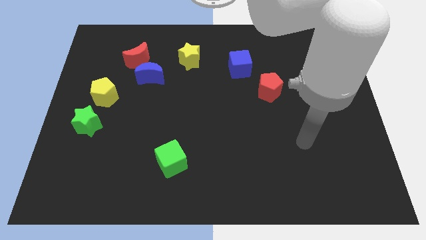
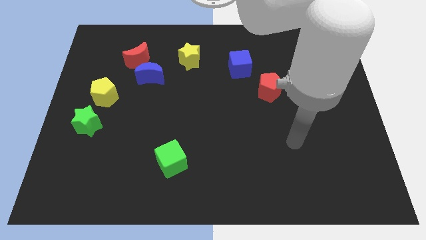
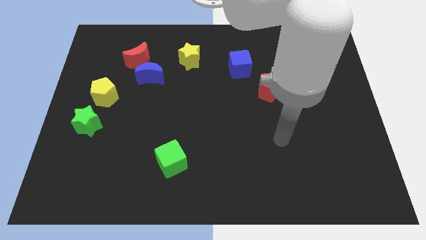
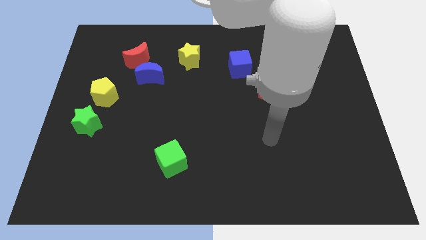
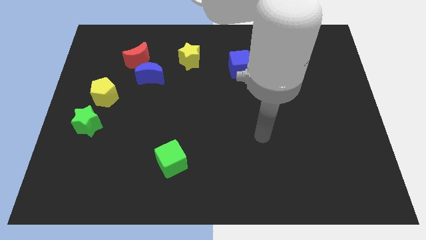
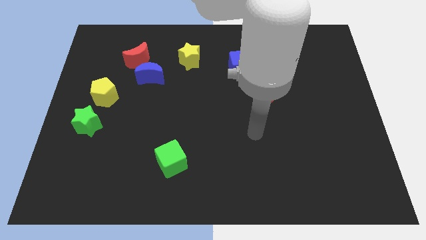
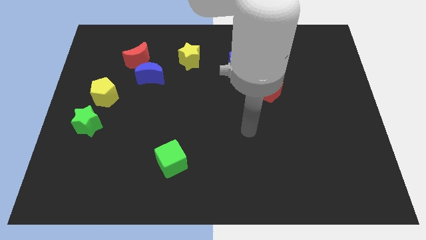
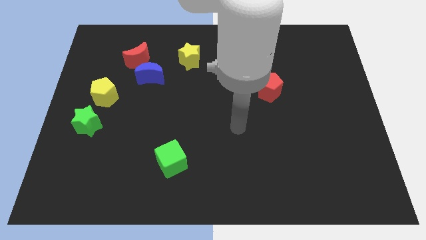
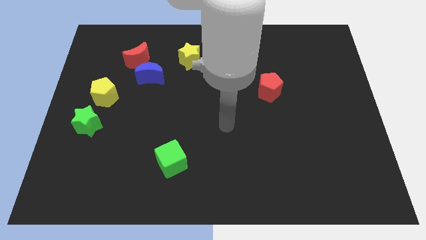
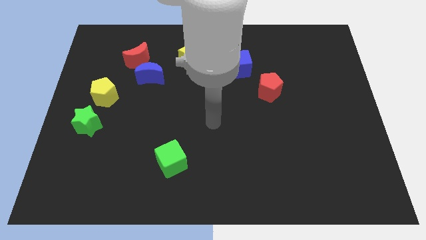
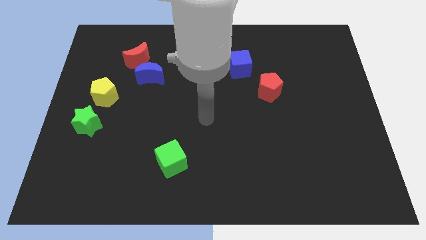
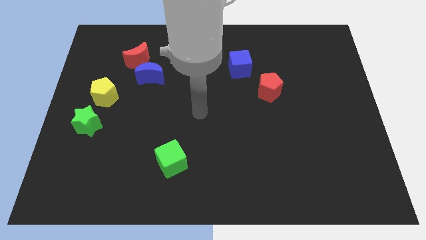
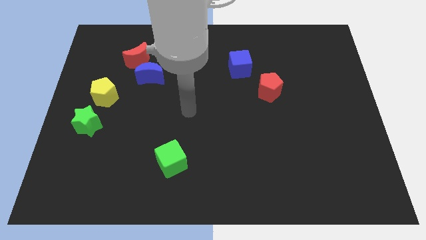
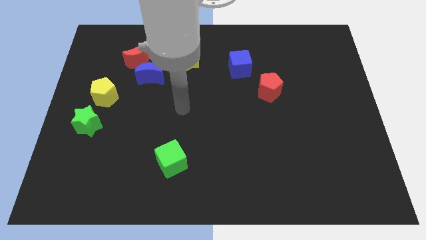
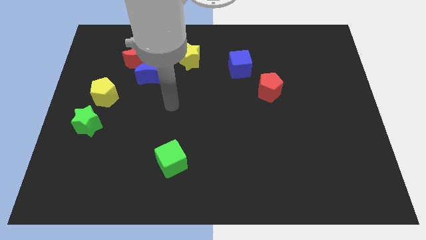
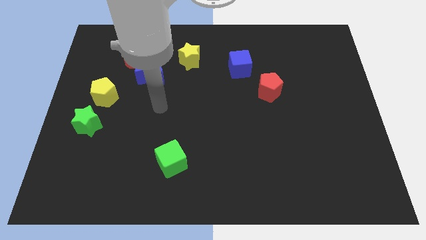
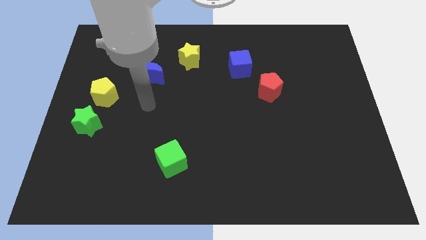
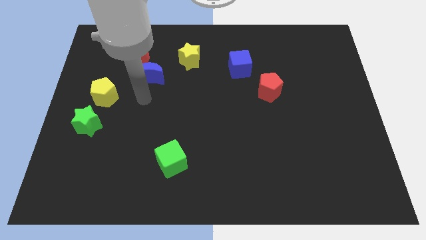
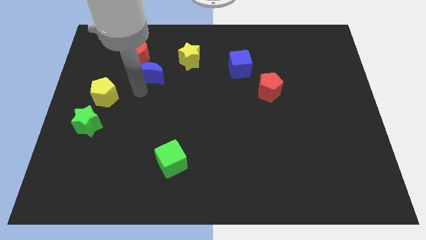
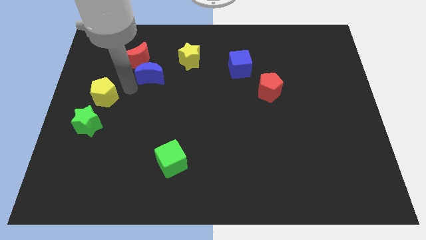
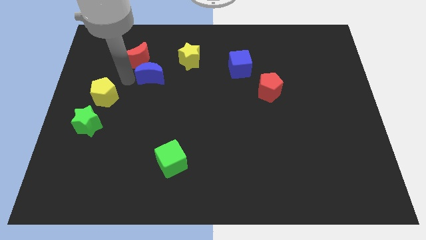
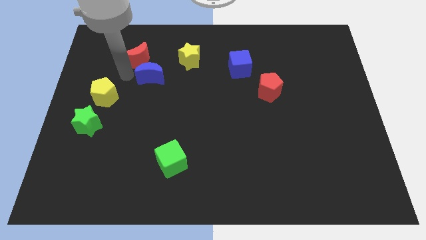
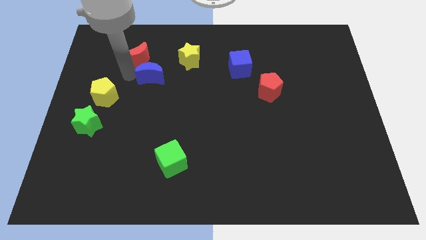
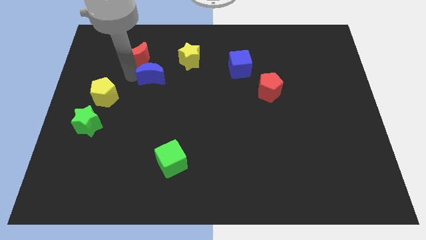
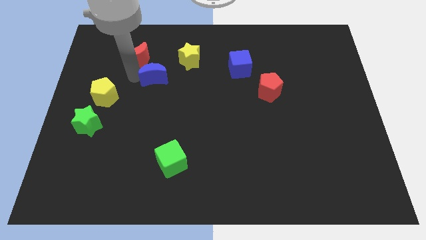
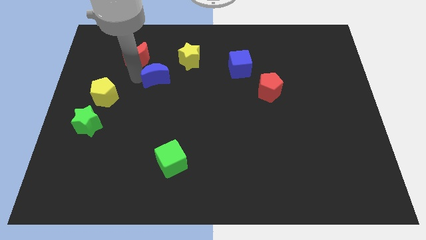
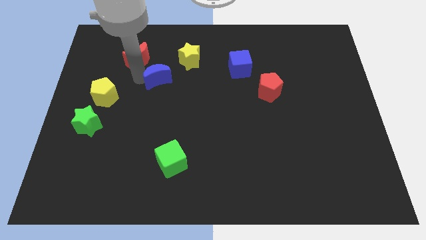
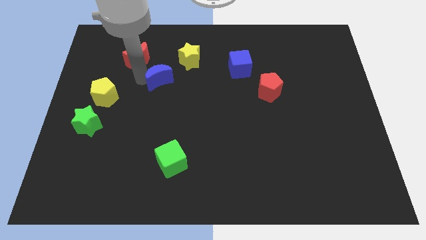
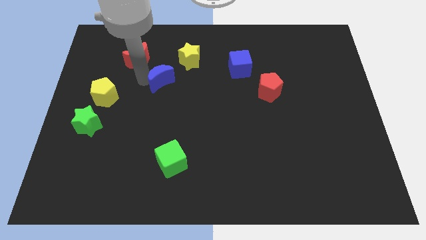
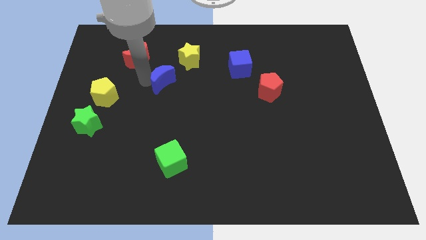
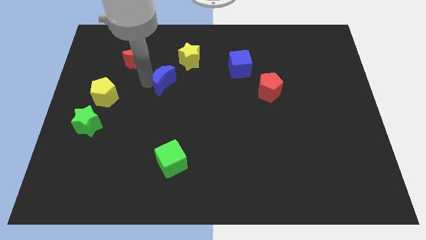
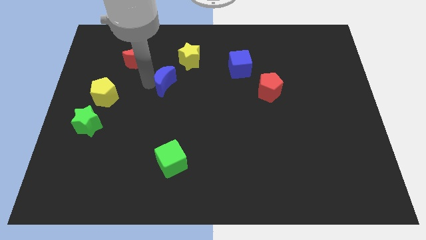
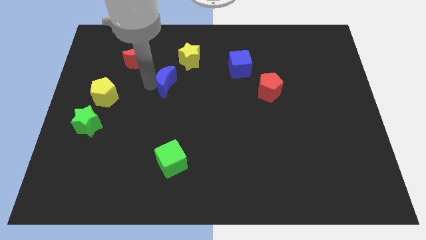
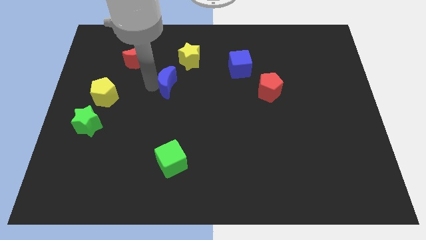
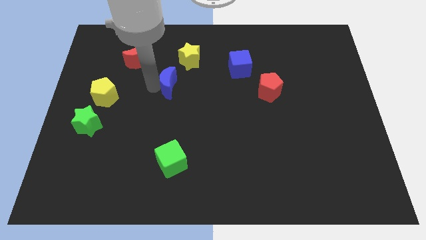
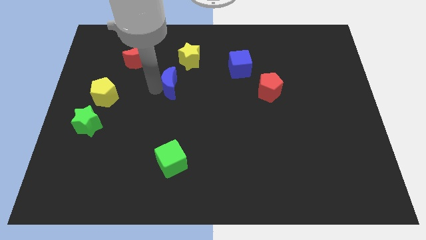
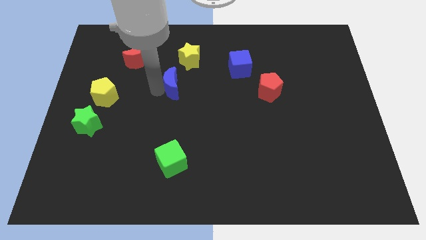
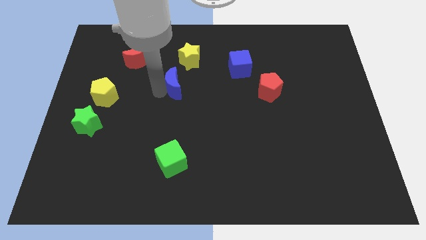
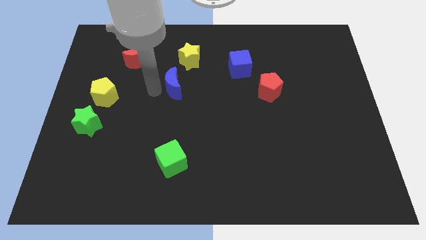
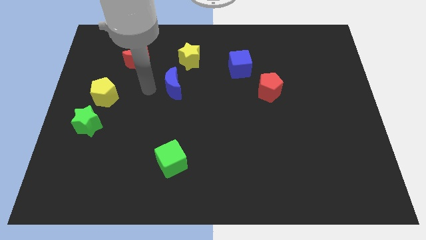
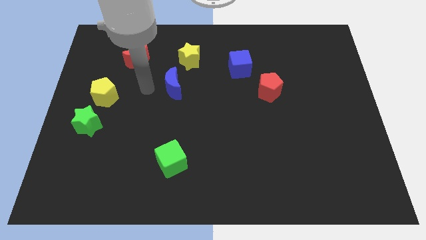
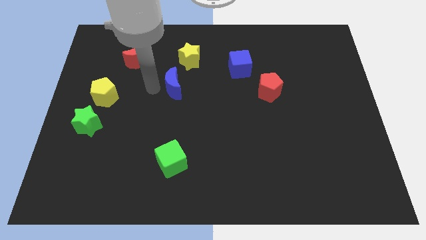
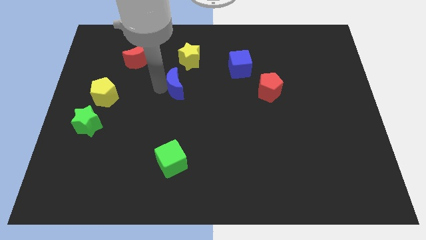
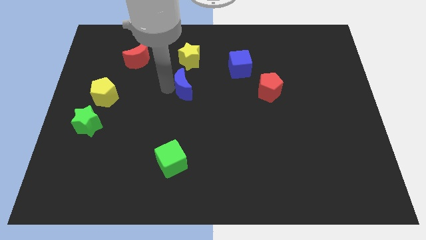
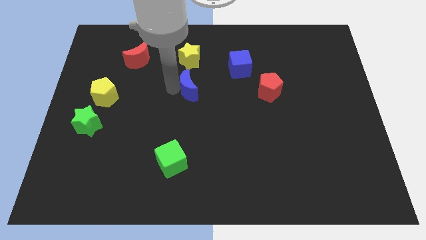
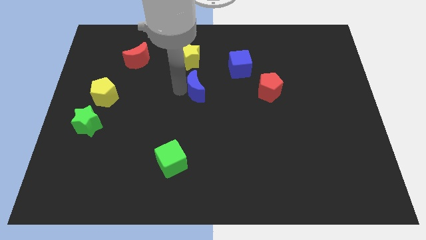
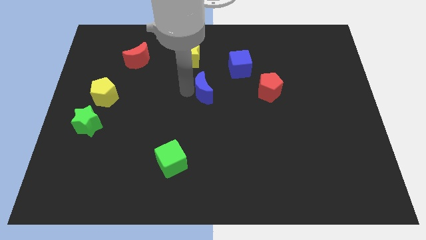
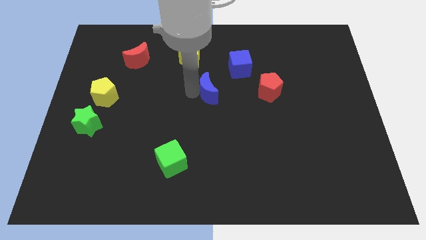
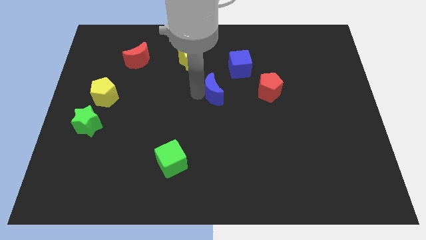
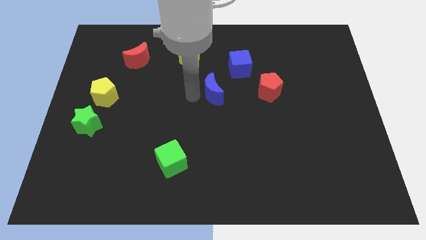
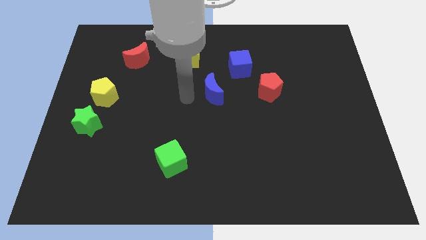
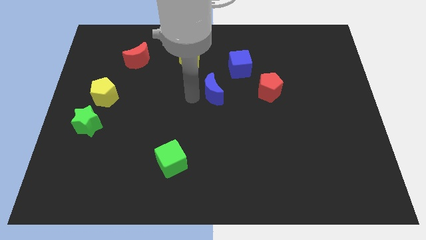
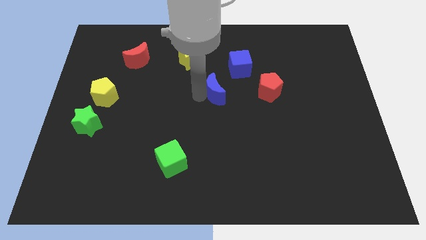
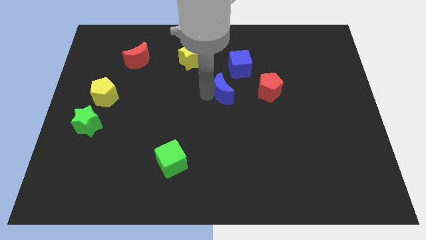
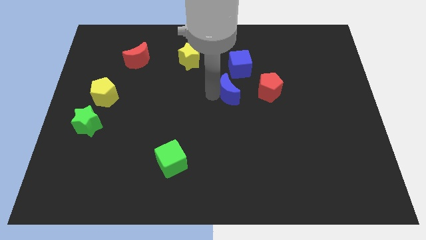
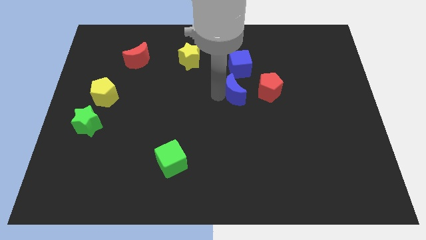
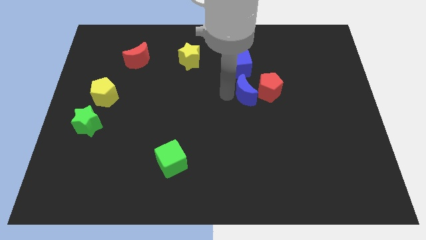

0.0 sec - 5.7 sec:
push the blue moon next to the red pentagon

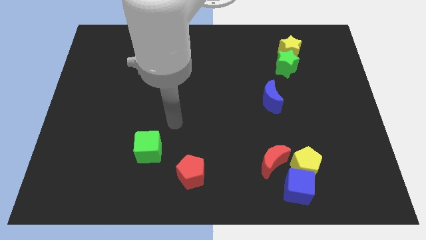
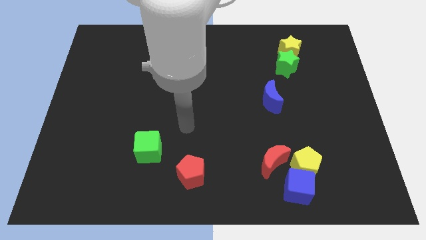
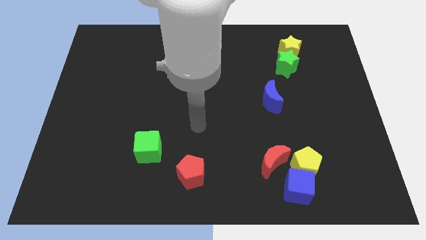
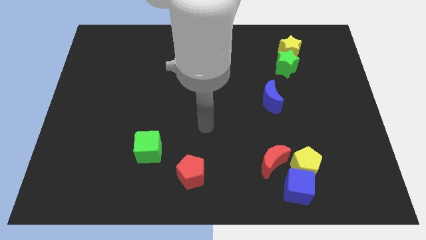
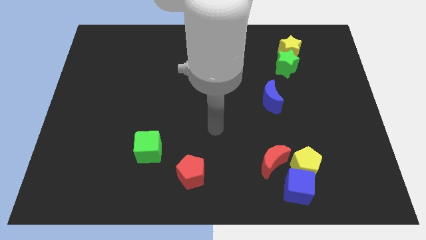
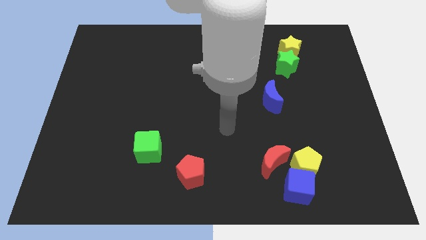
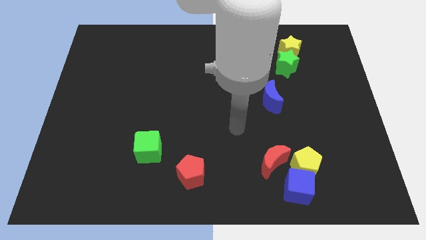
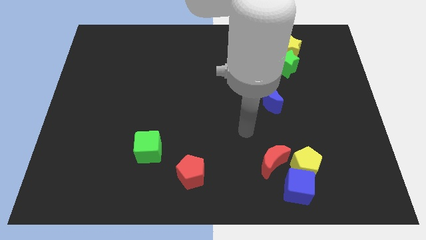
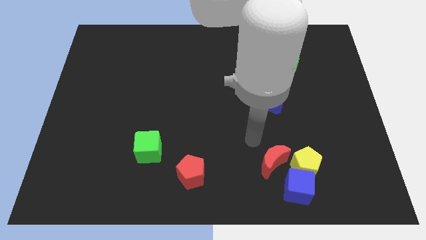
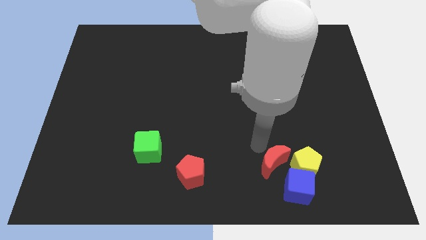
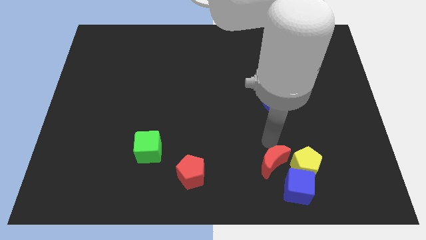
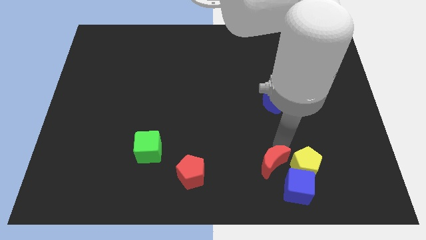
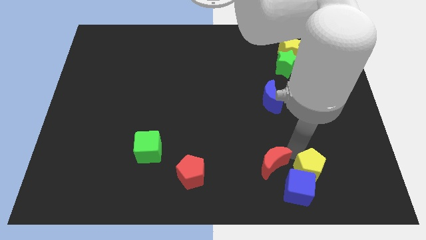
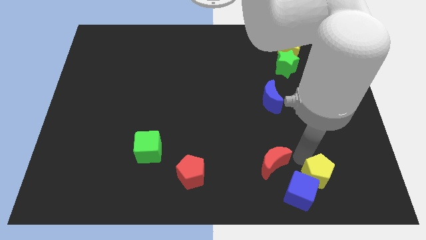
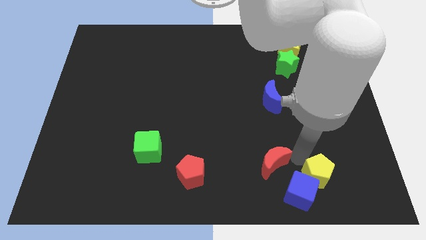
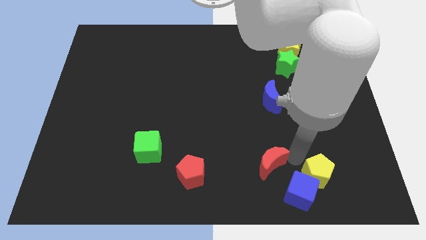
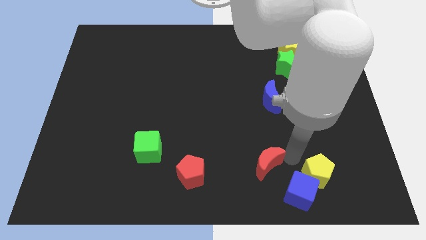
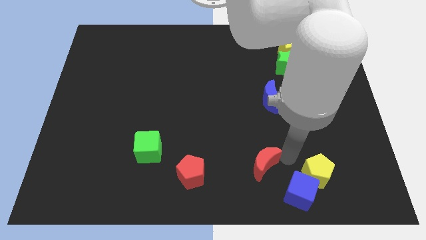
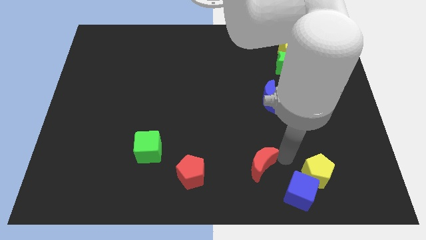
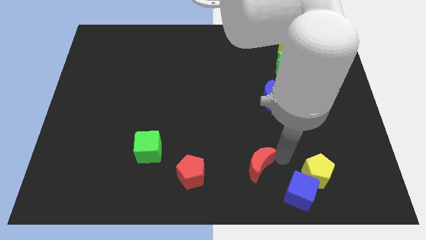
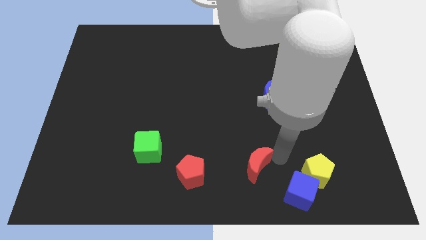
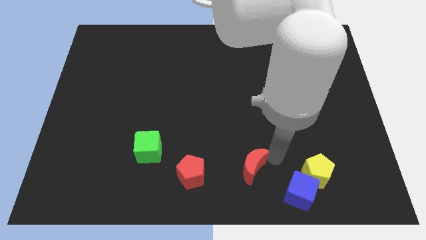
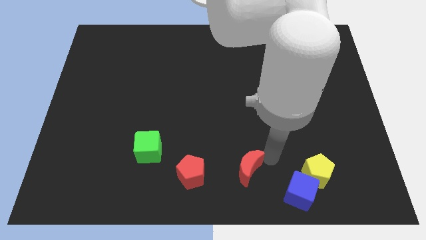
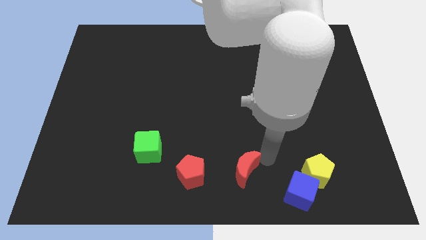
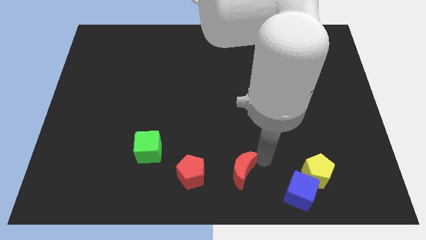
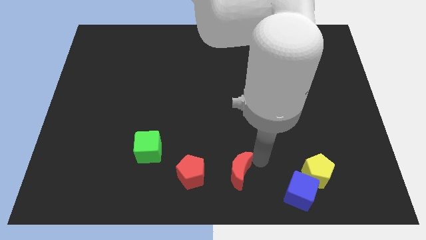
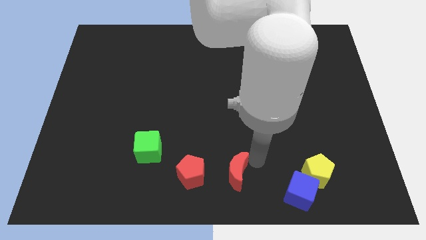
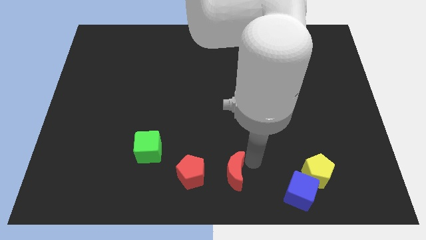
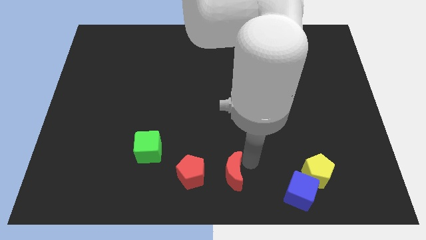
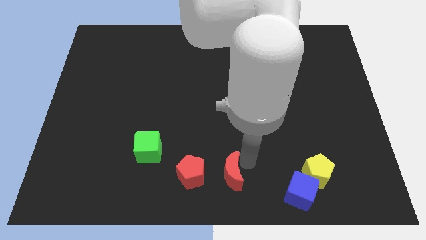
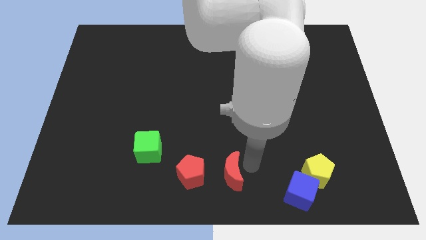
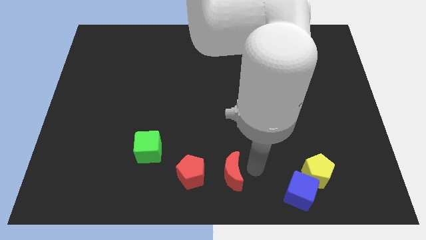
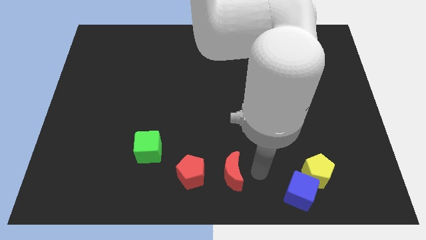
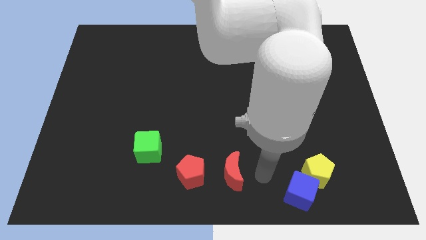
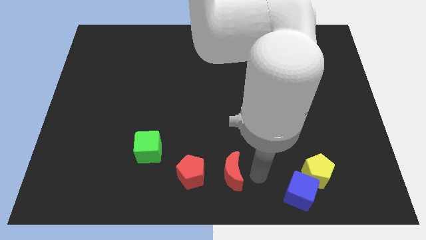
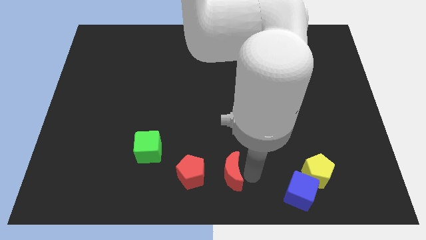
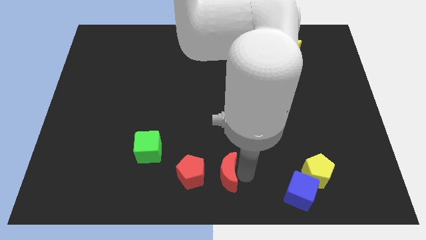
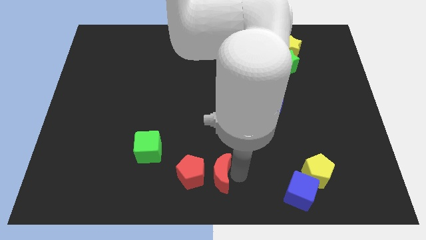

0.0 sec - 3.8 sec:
move the red moon close to the red pentagon
